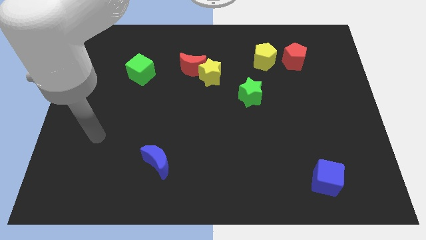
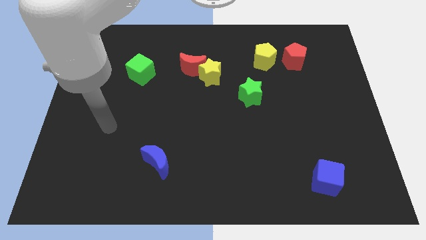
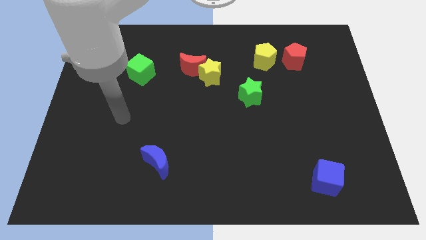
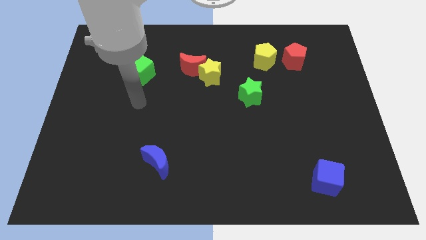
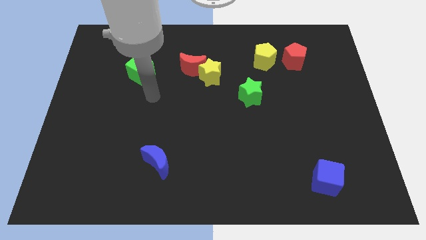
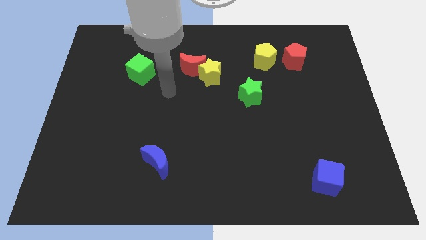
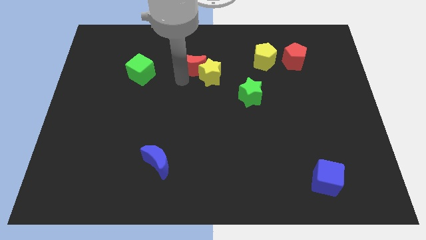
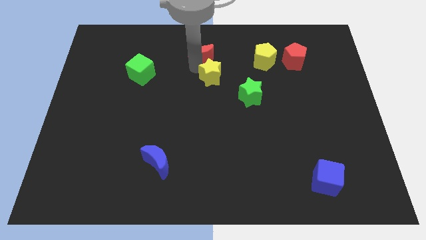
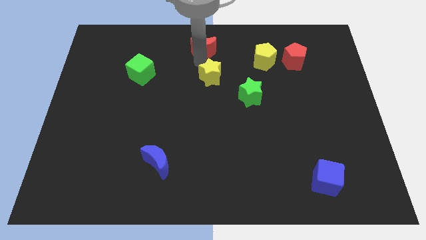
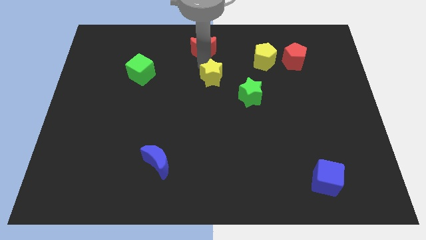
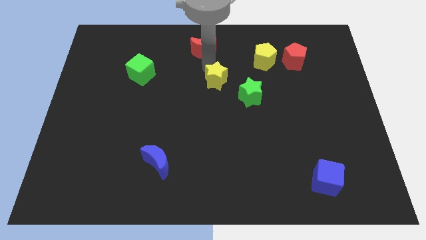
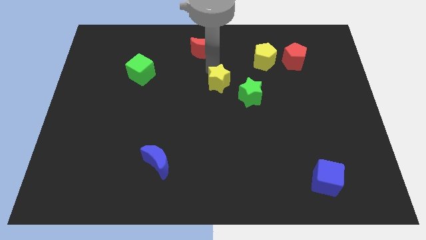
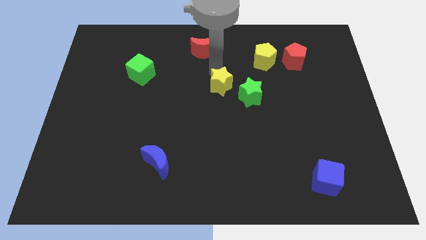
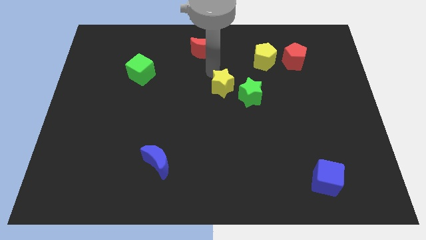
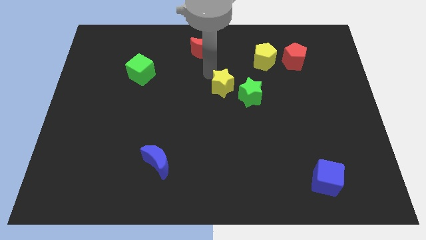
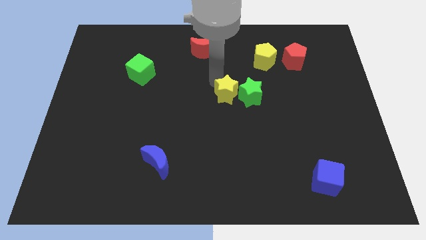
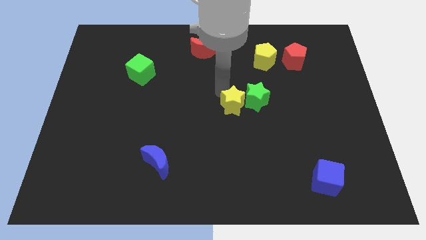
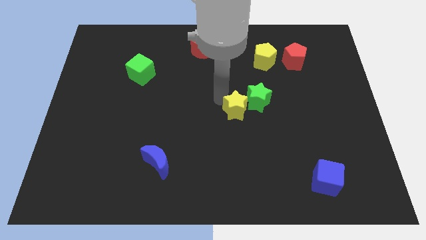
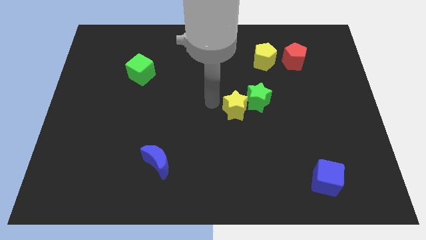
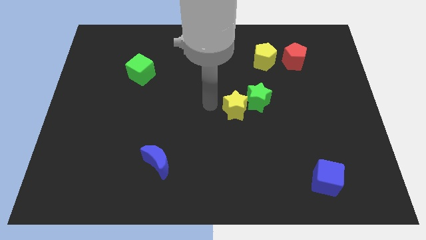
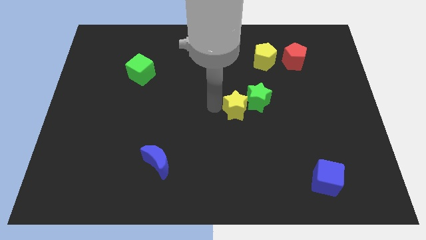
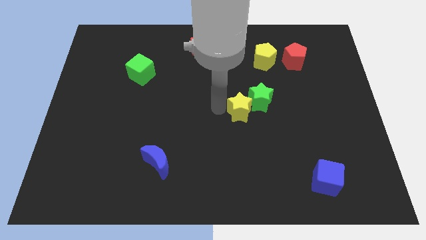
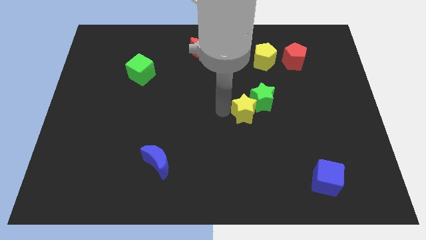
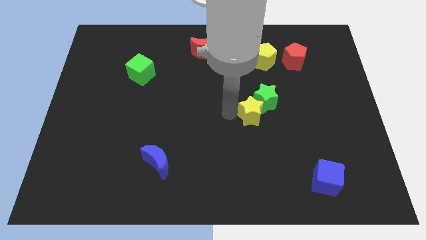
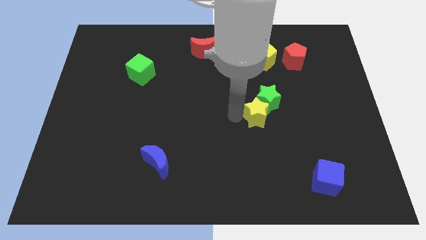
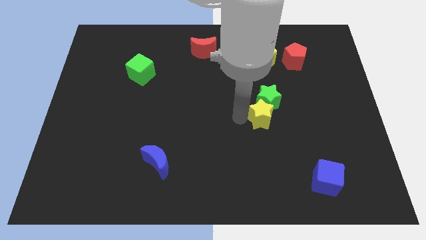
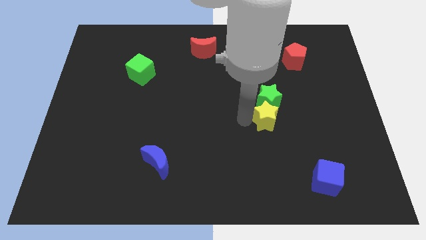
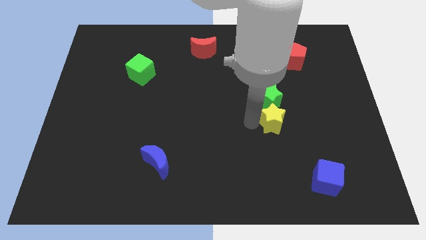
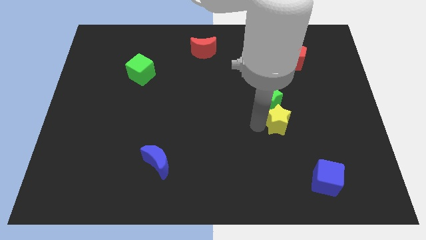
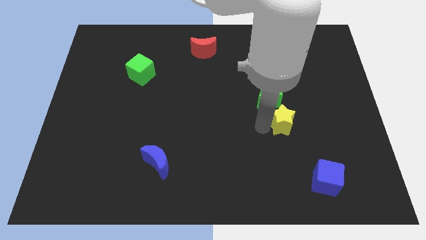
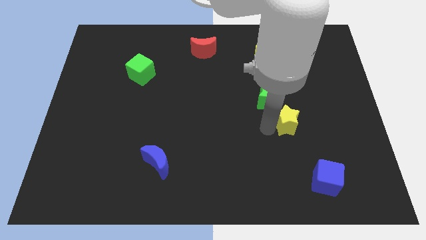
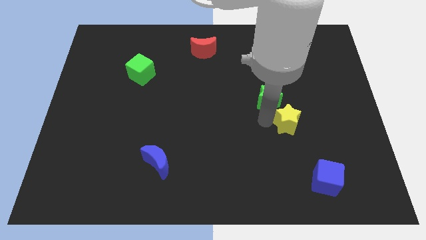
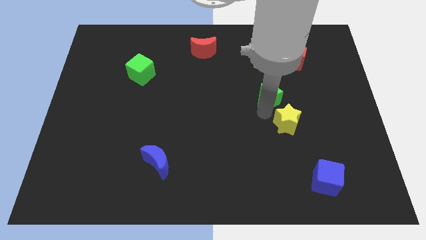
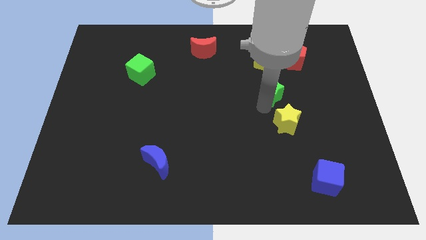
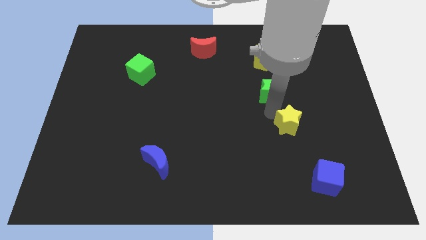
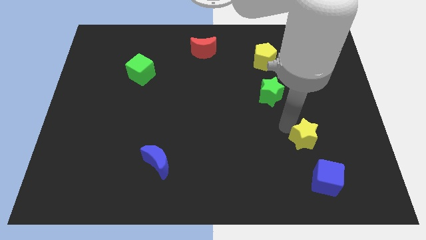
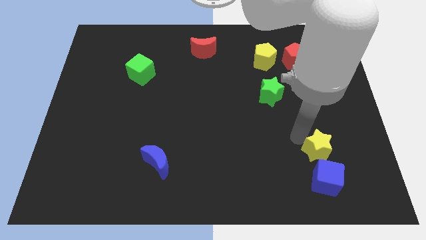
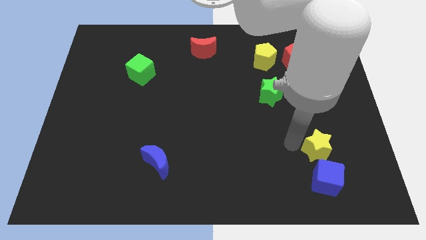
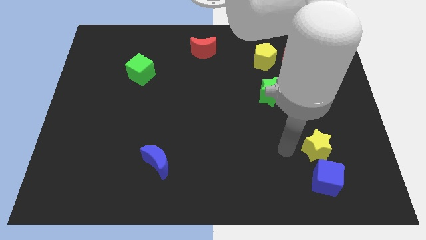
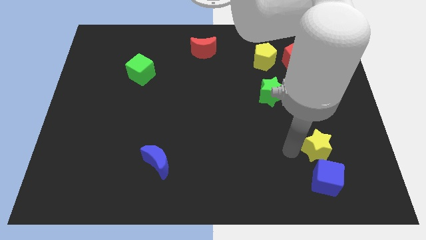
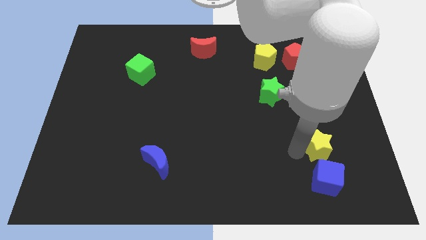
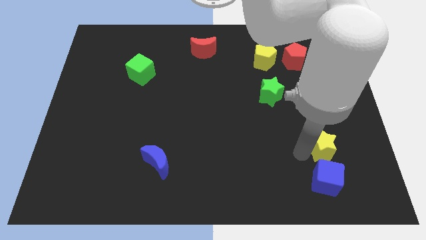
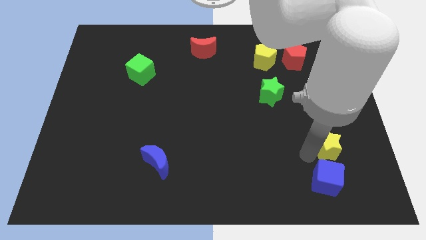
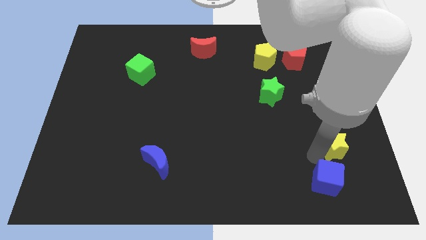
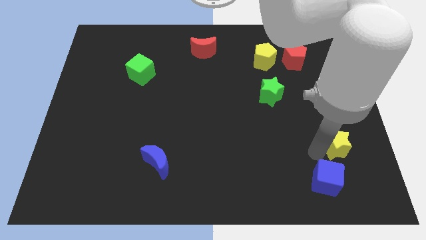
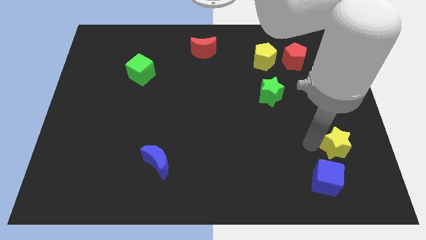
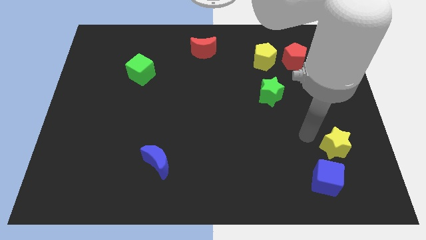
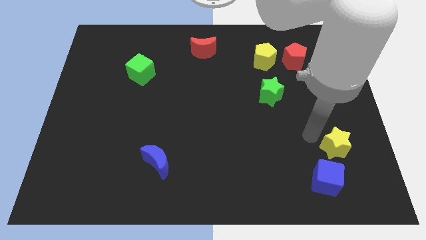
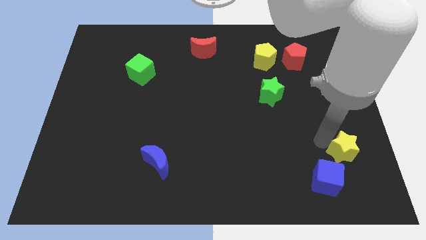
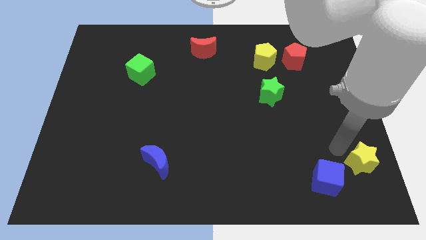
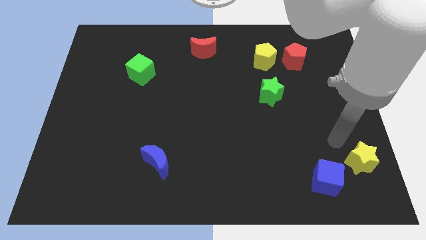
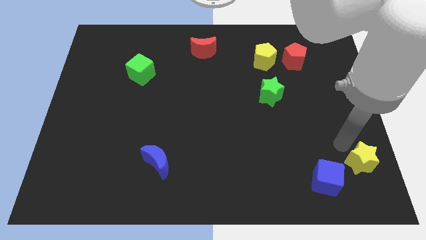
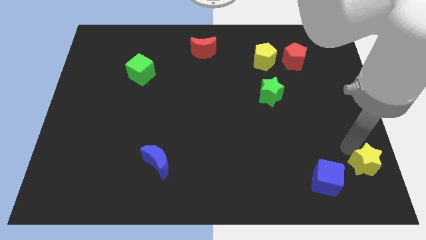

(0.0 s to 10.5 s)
move the yellow star to the bottom right

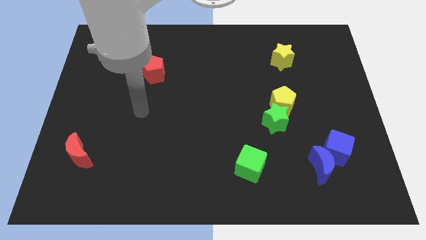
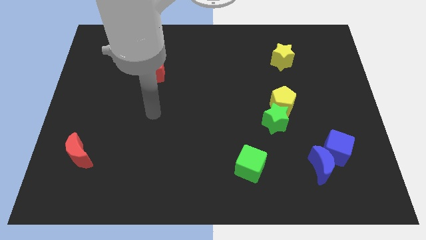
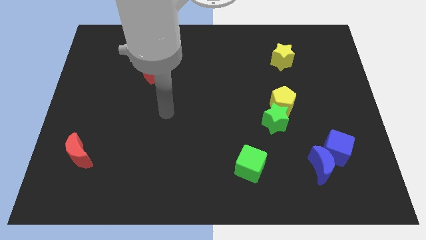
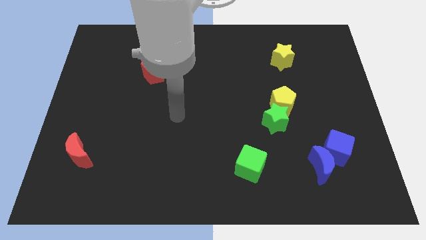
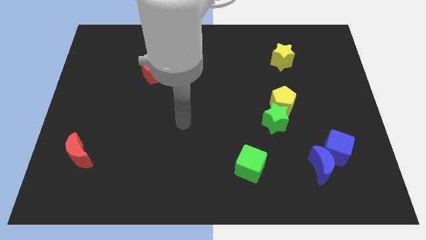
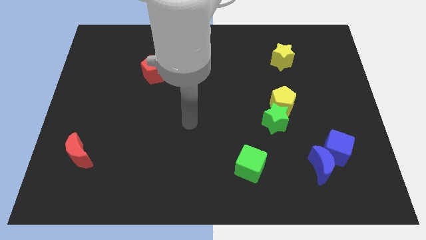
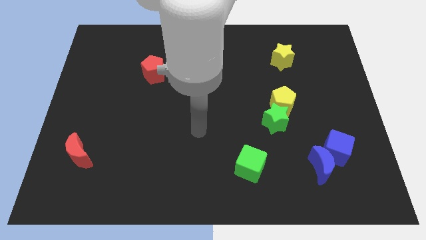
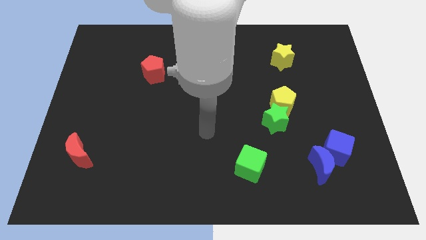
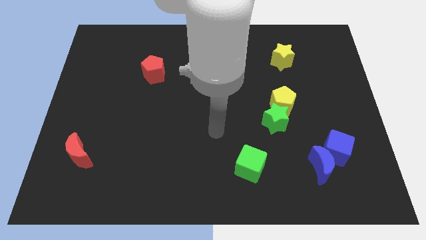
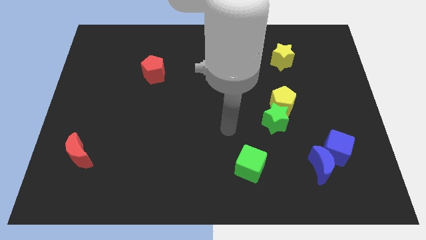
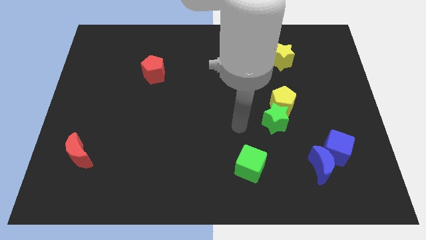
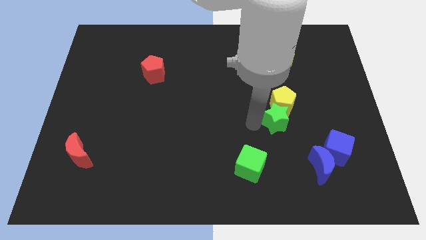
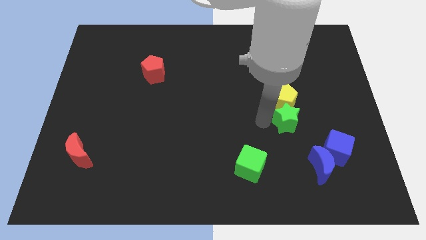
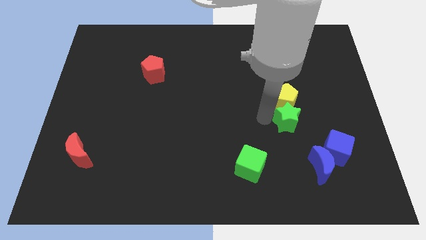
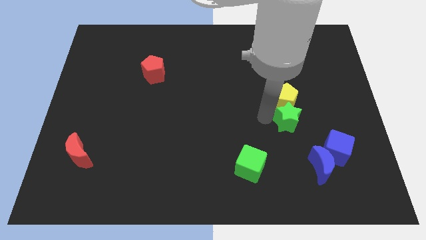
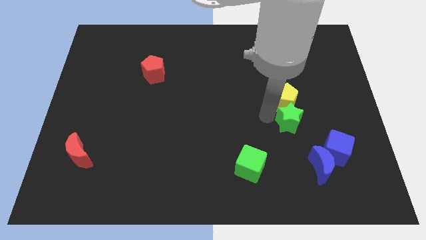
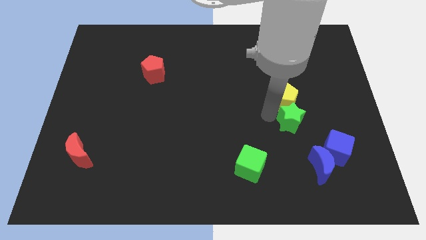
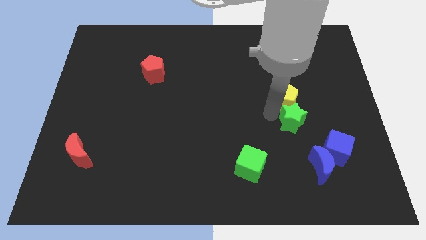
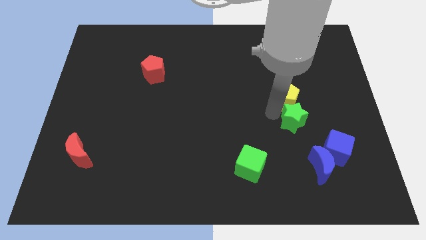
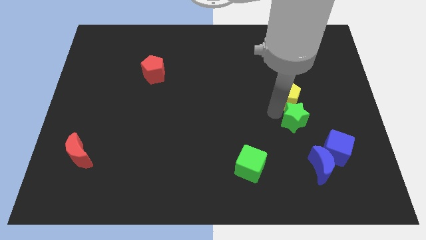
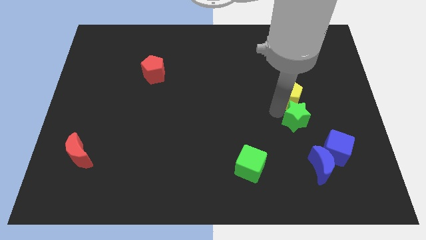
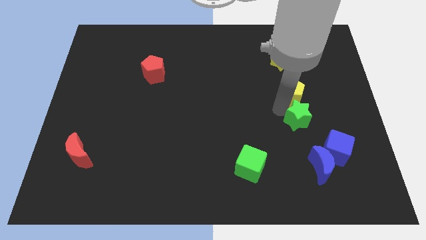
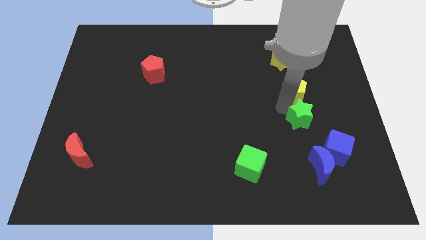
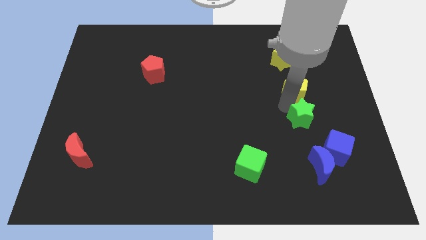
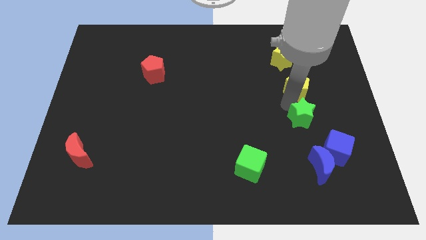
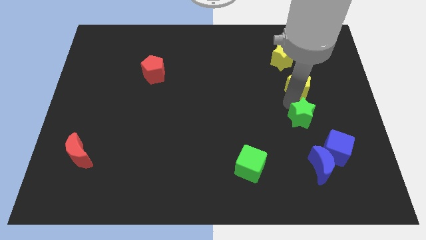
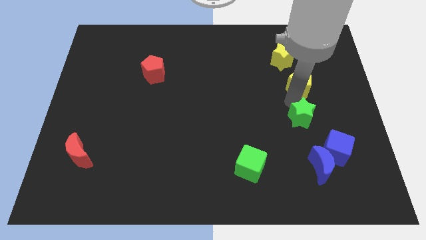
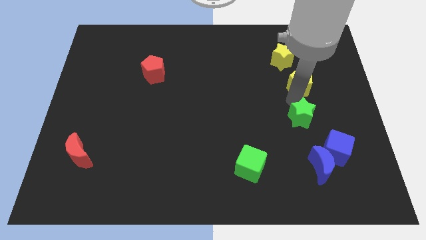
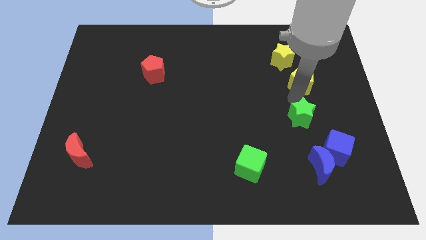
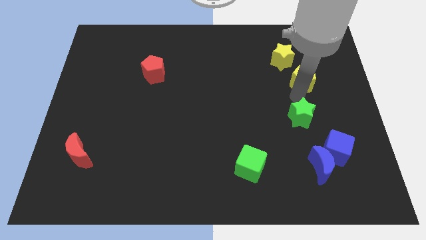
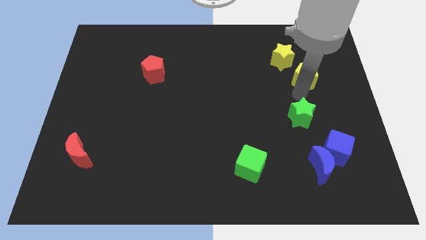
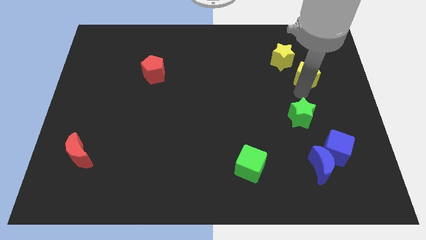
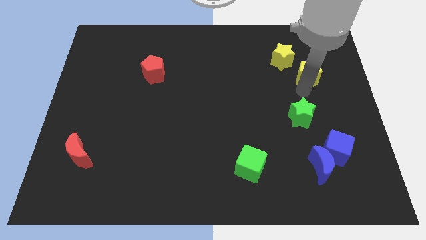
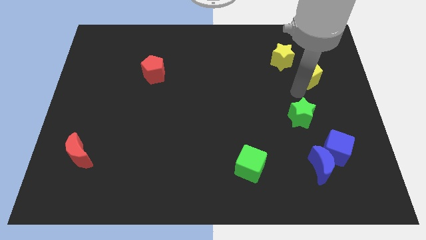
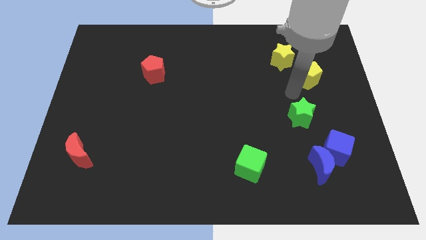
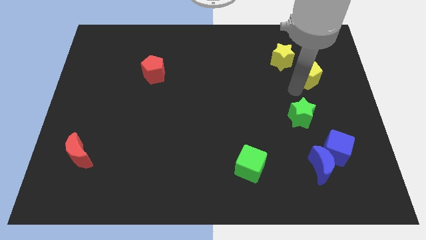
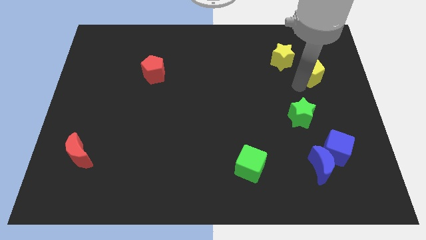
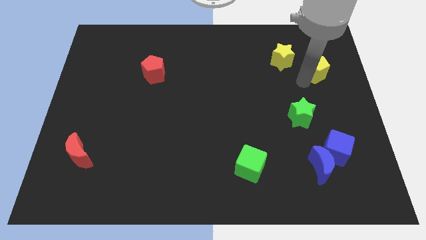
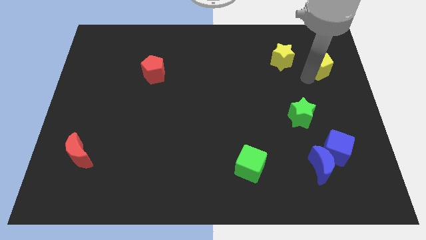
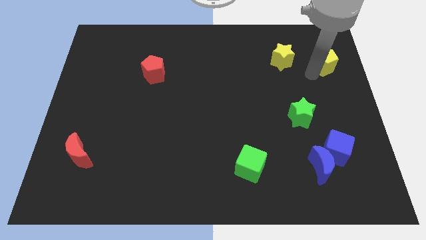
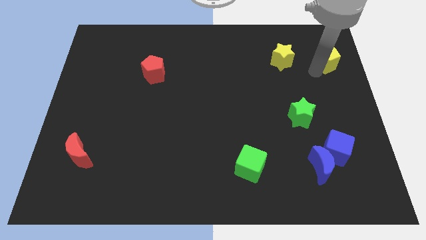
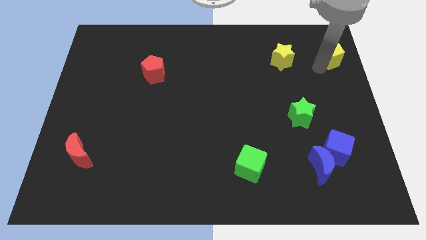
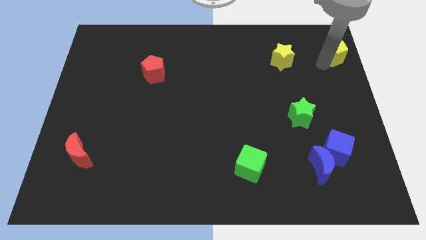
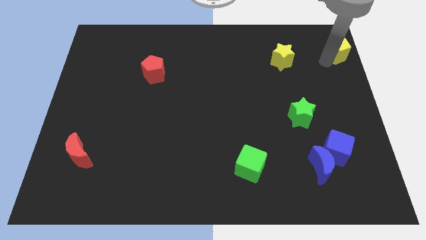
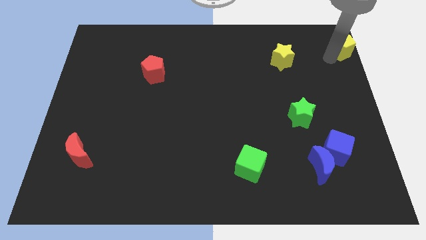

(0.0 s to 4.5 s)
move the yellow pentagon to the top right
